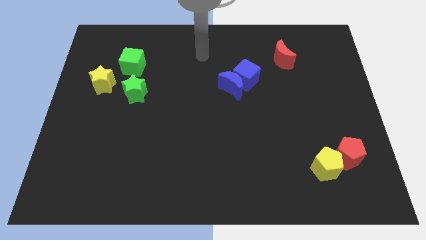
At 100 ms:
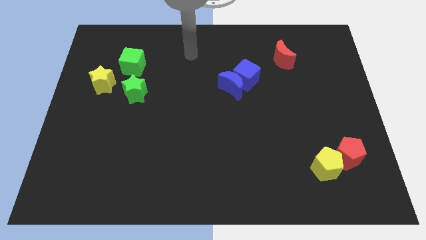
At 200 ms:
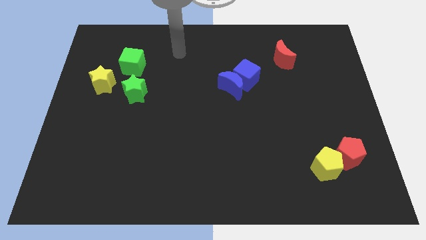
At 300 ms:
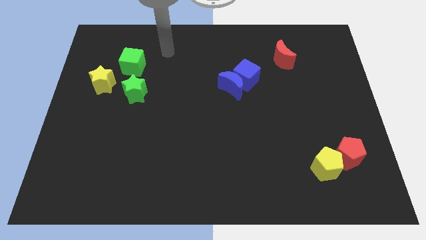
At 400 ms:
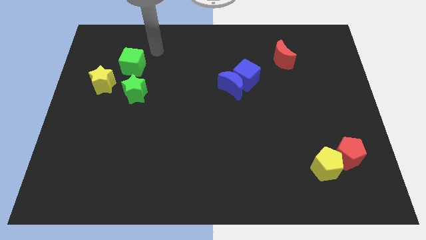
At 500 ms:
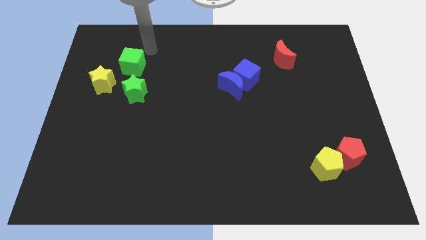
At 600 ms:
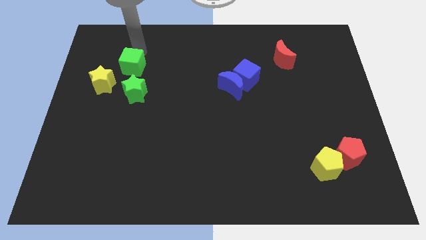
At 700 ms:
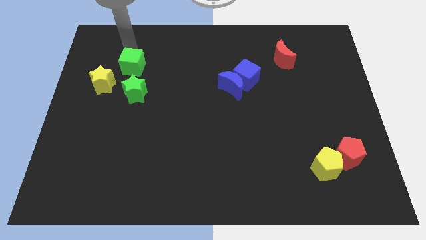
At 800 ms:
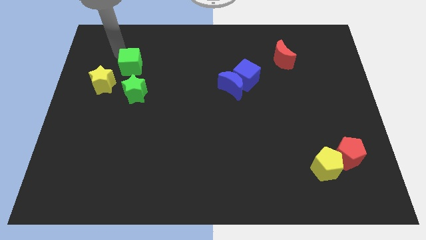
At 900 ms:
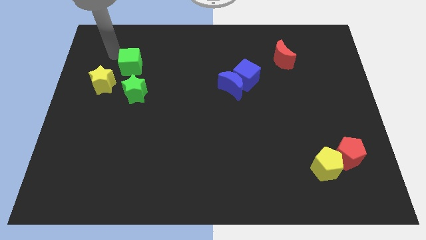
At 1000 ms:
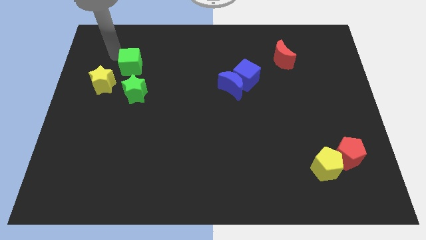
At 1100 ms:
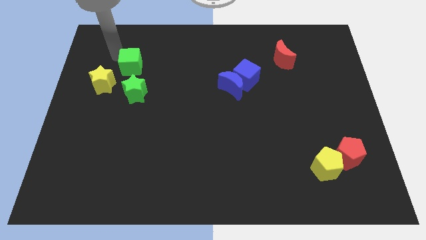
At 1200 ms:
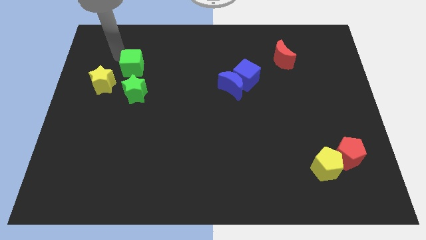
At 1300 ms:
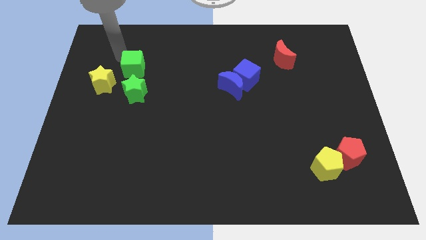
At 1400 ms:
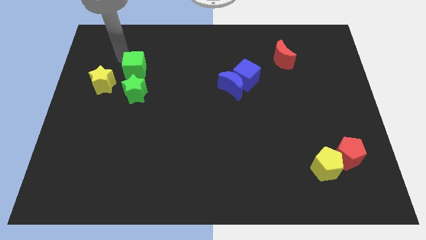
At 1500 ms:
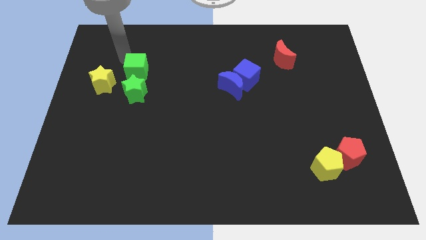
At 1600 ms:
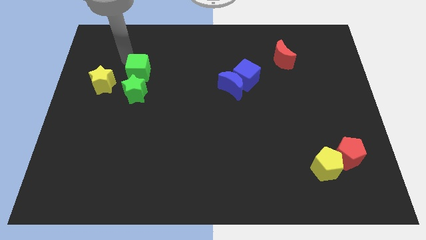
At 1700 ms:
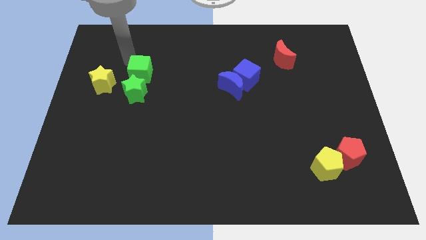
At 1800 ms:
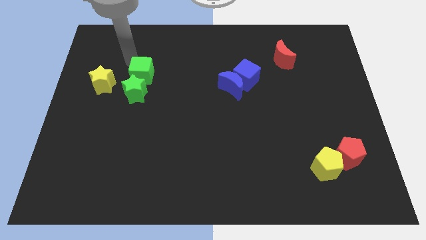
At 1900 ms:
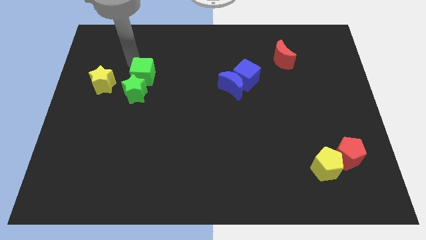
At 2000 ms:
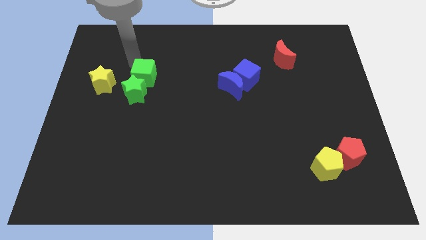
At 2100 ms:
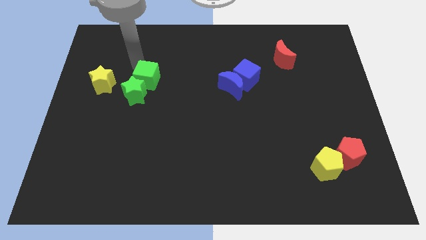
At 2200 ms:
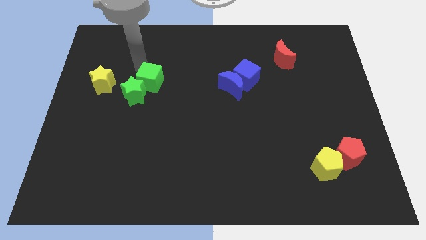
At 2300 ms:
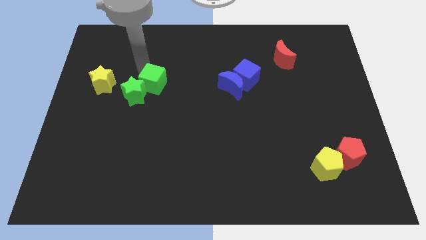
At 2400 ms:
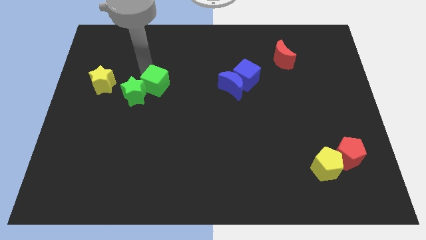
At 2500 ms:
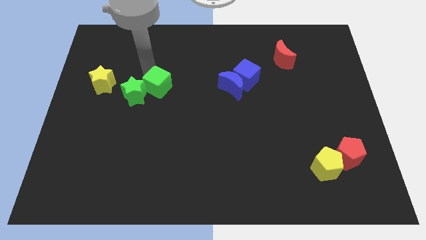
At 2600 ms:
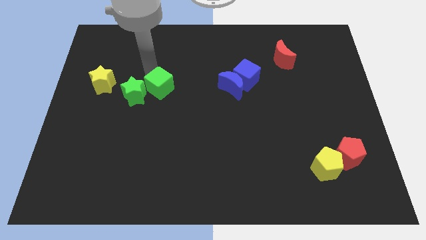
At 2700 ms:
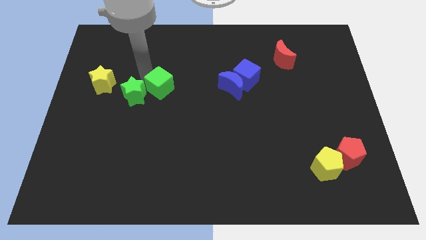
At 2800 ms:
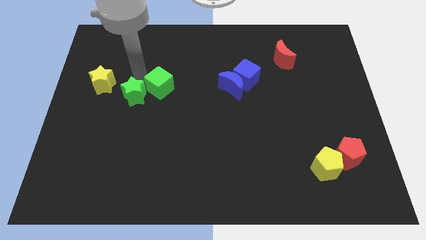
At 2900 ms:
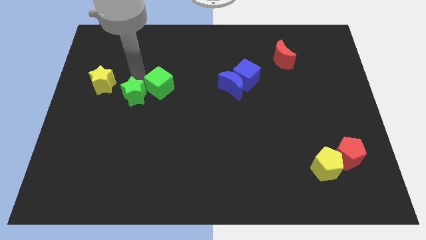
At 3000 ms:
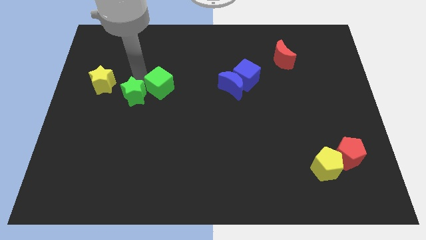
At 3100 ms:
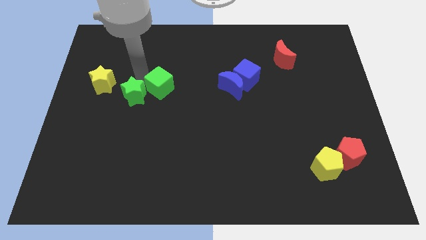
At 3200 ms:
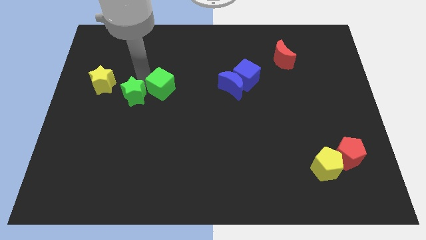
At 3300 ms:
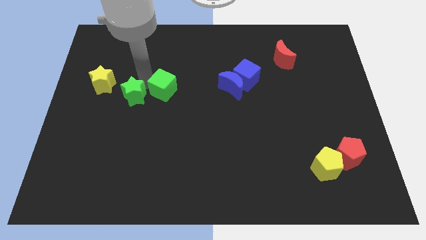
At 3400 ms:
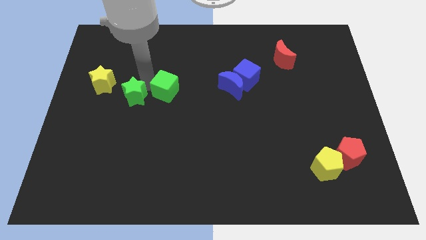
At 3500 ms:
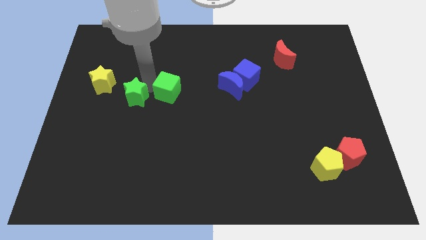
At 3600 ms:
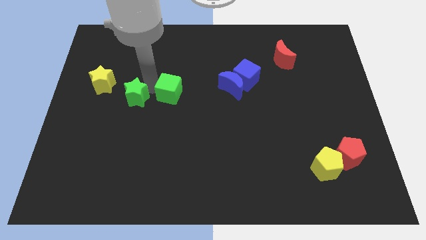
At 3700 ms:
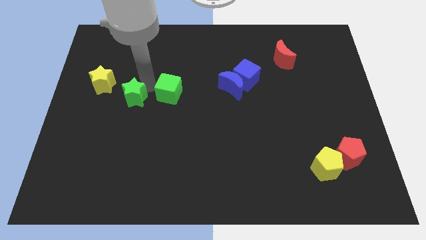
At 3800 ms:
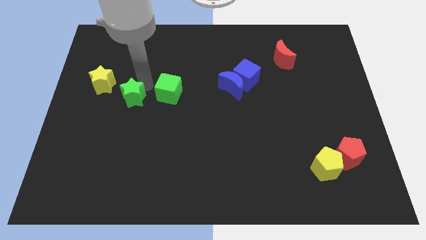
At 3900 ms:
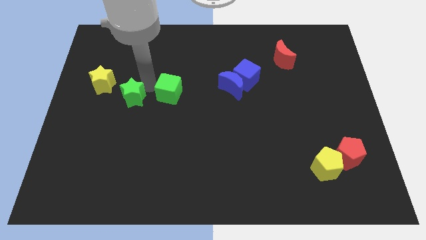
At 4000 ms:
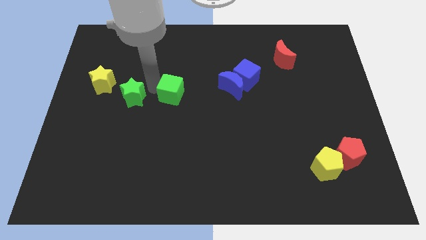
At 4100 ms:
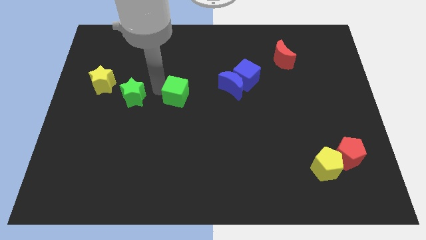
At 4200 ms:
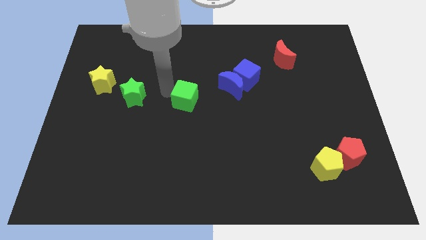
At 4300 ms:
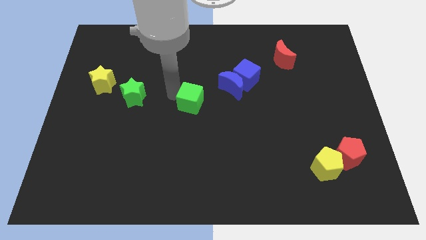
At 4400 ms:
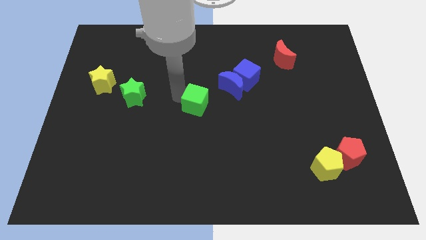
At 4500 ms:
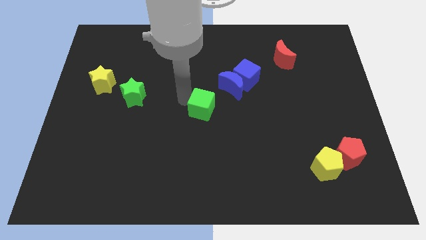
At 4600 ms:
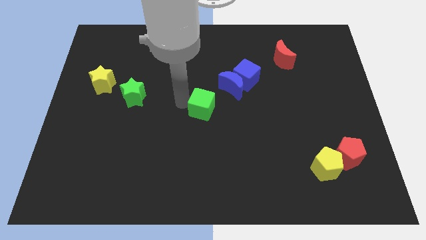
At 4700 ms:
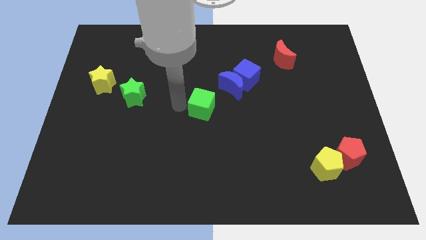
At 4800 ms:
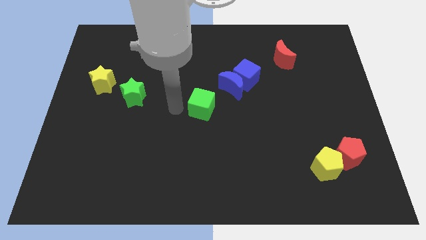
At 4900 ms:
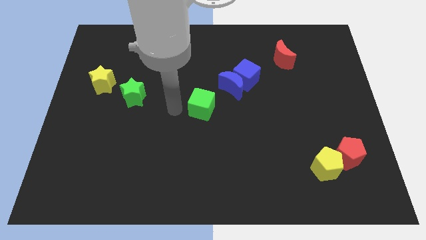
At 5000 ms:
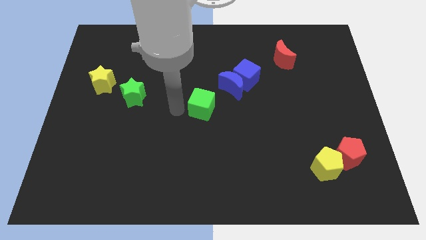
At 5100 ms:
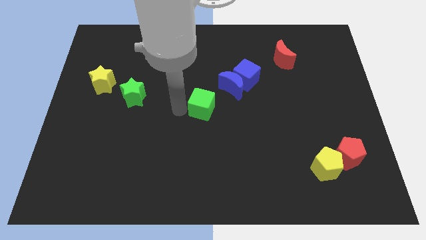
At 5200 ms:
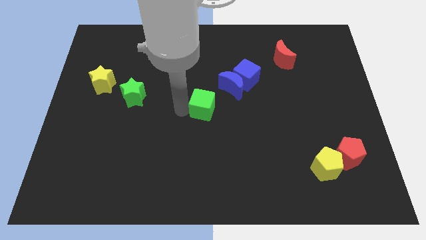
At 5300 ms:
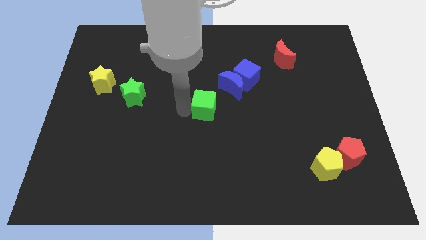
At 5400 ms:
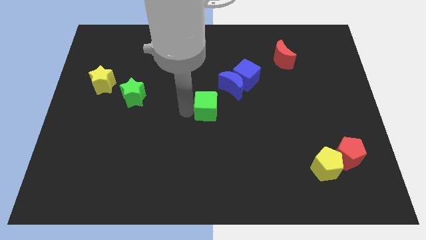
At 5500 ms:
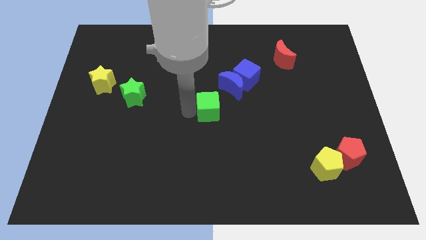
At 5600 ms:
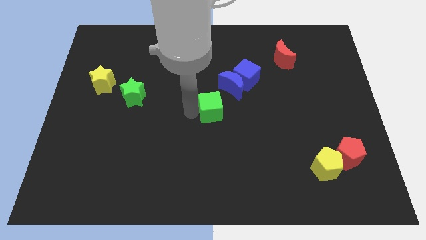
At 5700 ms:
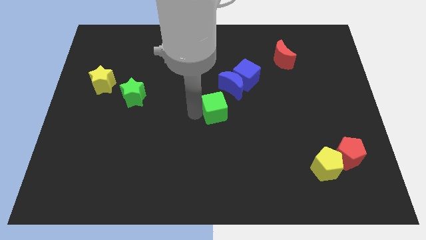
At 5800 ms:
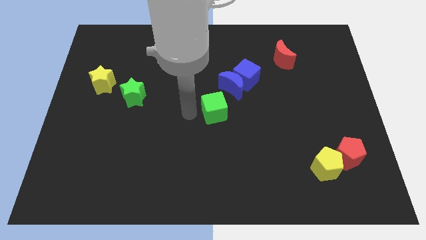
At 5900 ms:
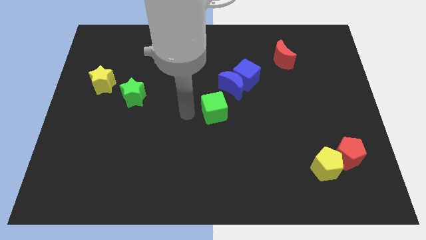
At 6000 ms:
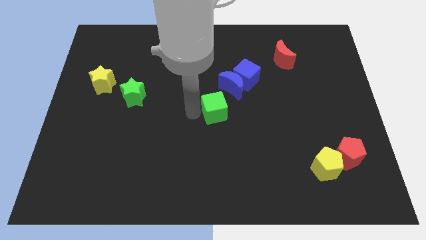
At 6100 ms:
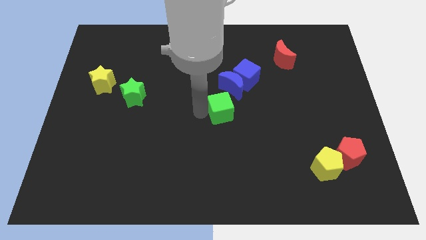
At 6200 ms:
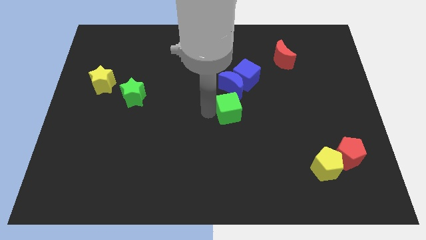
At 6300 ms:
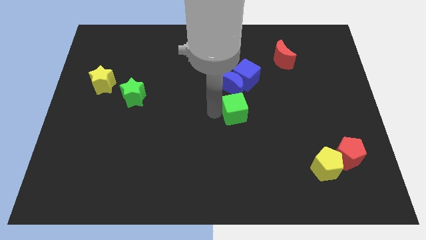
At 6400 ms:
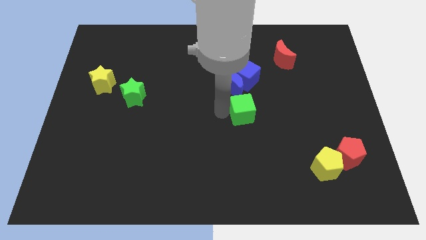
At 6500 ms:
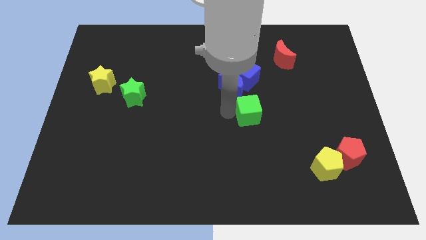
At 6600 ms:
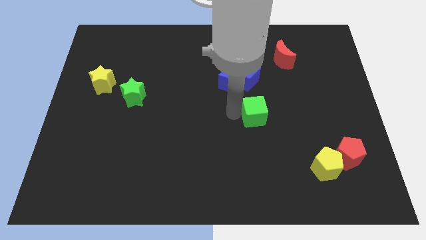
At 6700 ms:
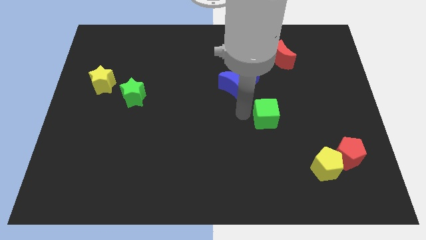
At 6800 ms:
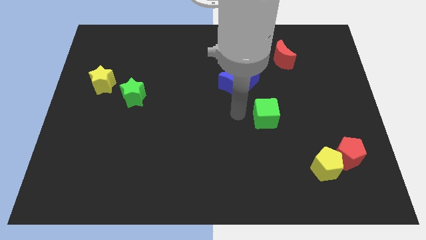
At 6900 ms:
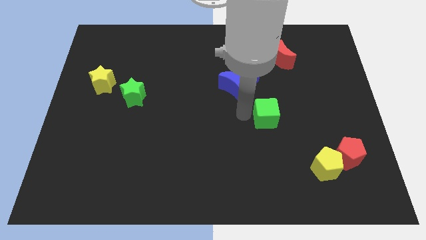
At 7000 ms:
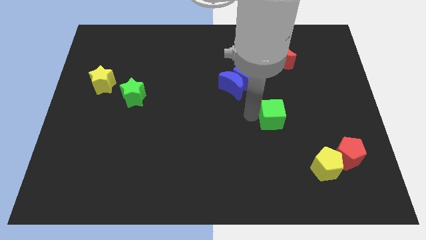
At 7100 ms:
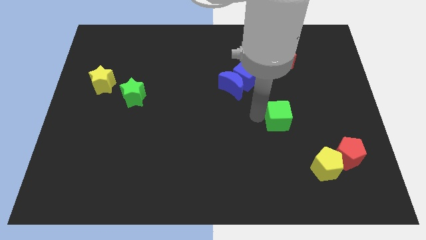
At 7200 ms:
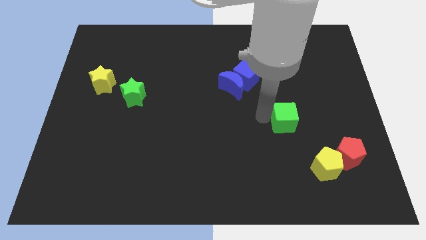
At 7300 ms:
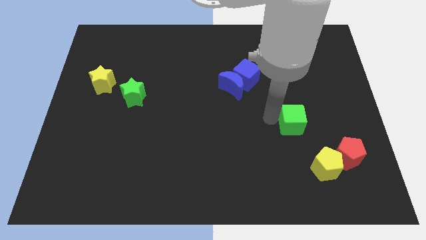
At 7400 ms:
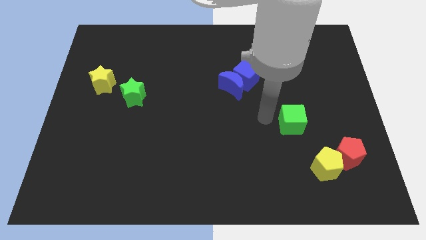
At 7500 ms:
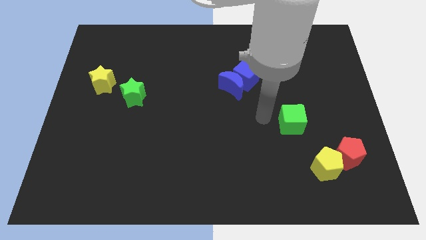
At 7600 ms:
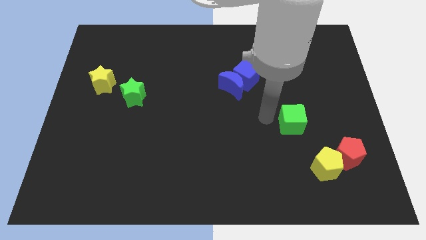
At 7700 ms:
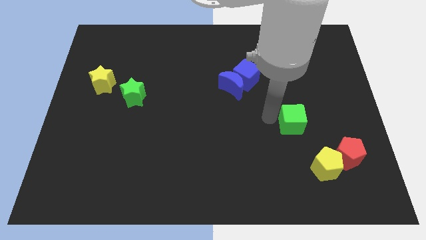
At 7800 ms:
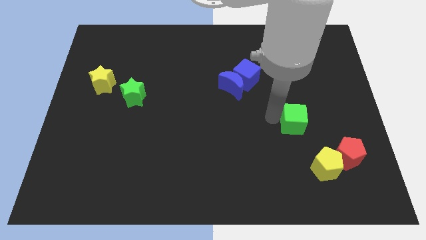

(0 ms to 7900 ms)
move the green cube to the top side of the yellow pentagon
